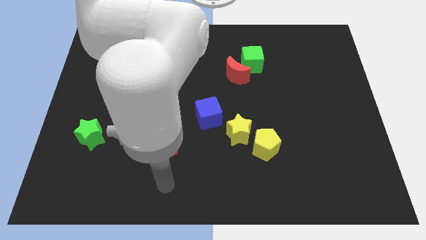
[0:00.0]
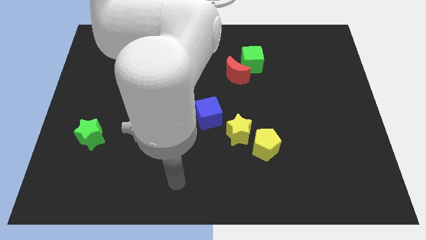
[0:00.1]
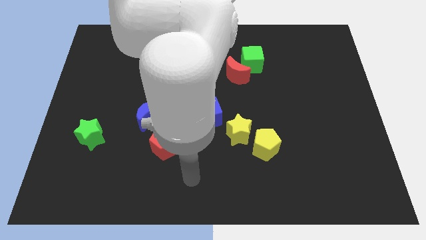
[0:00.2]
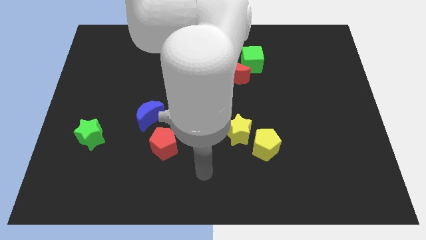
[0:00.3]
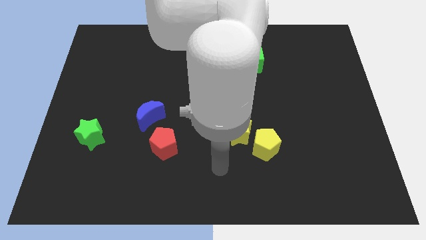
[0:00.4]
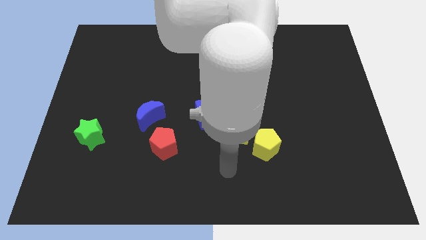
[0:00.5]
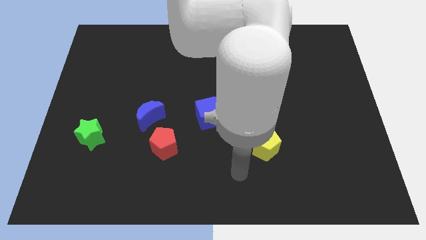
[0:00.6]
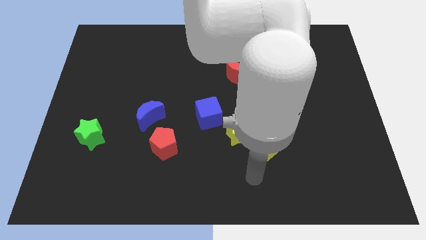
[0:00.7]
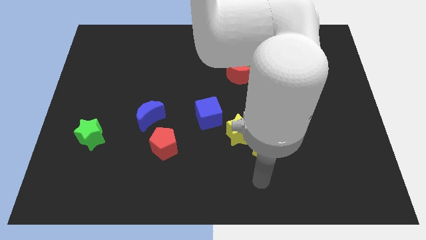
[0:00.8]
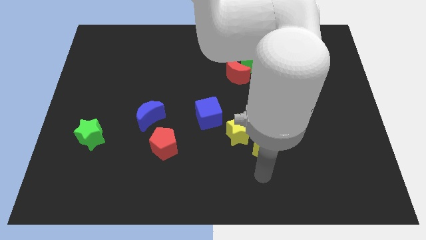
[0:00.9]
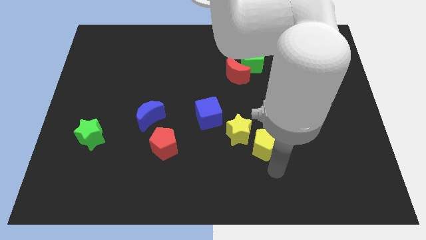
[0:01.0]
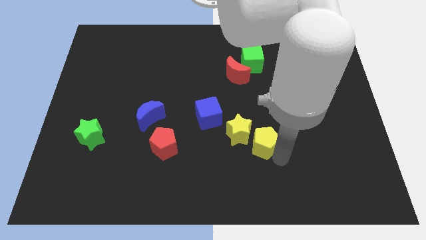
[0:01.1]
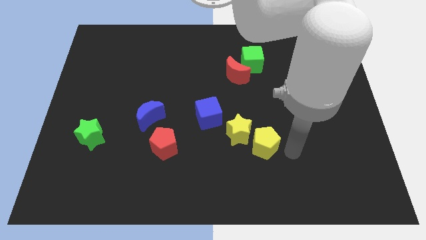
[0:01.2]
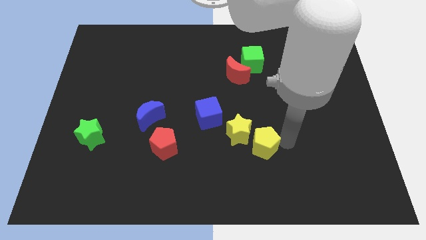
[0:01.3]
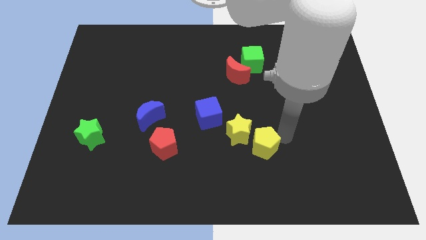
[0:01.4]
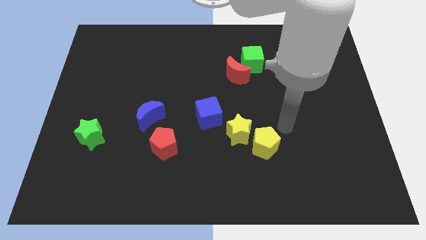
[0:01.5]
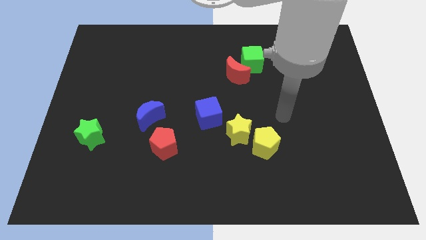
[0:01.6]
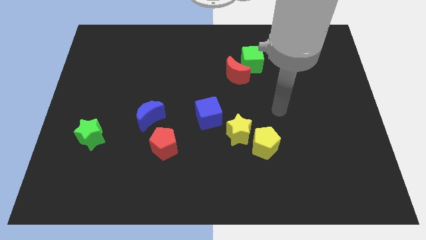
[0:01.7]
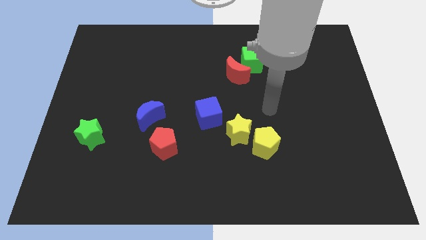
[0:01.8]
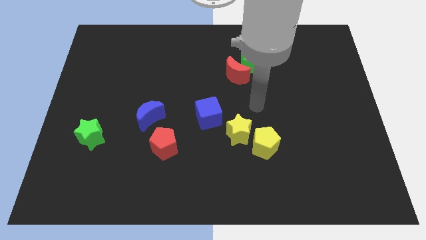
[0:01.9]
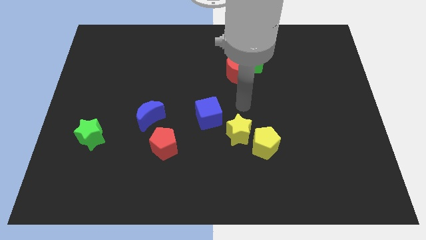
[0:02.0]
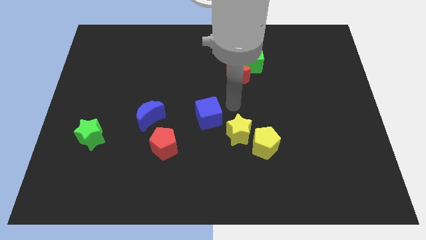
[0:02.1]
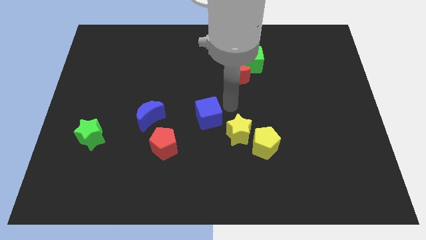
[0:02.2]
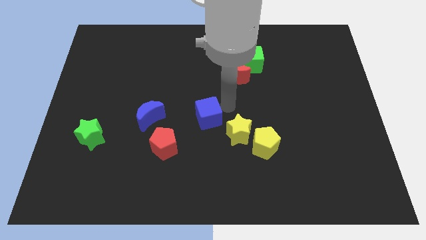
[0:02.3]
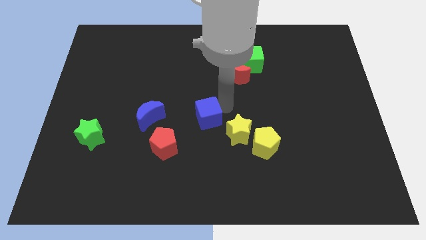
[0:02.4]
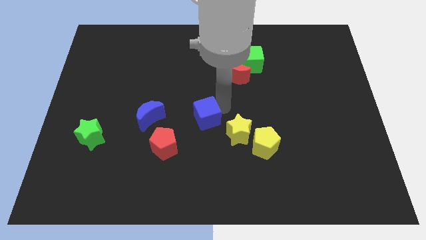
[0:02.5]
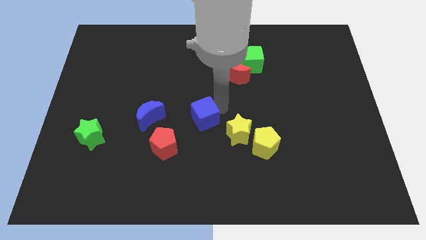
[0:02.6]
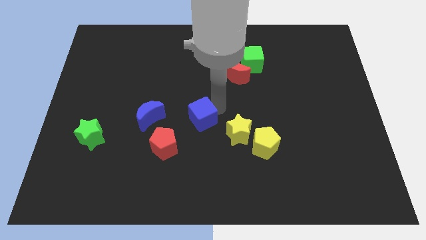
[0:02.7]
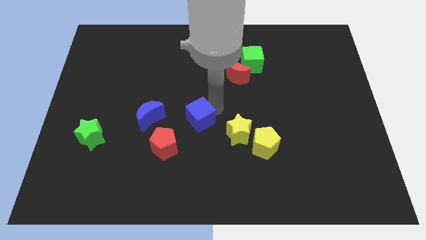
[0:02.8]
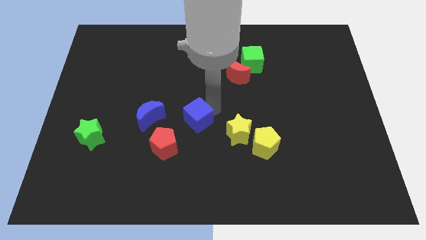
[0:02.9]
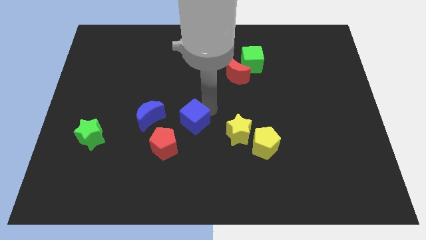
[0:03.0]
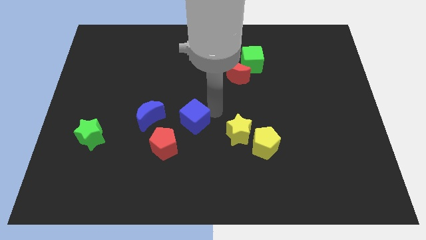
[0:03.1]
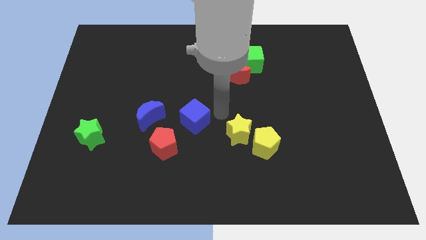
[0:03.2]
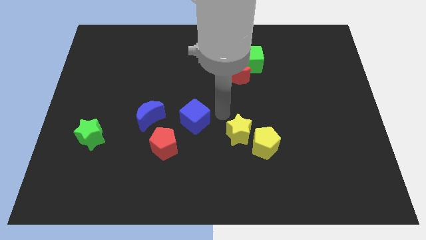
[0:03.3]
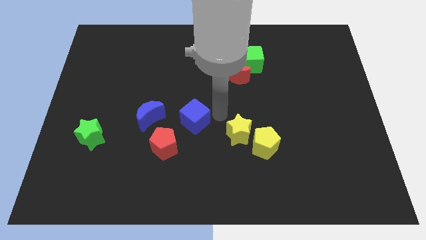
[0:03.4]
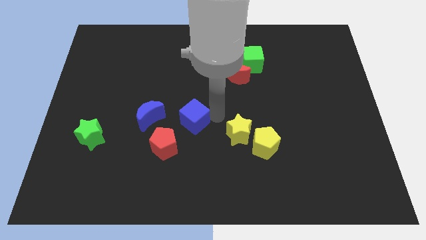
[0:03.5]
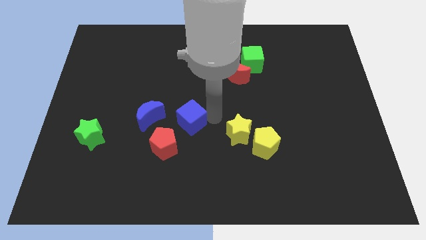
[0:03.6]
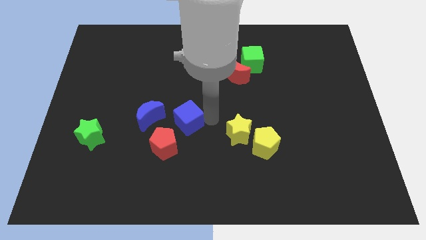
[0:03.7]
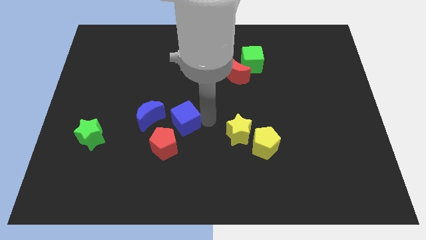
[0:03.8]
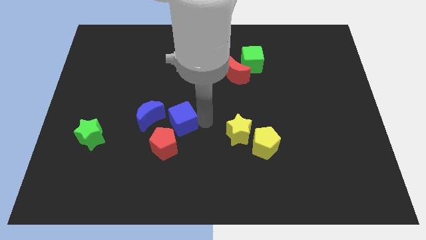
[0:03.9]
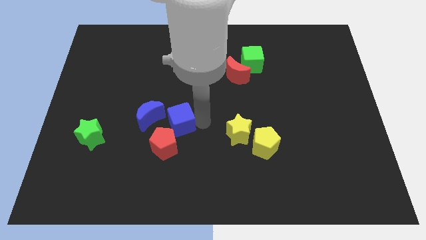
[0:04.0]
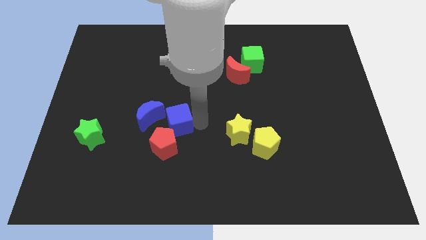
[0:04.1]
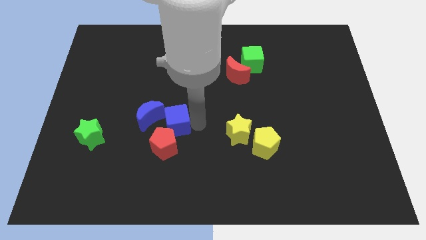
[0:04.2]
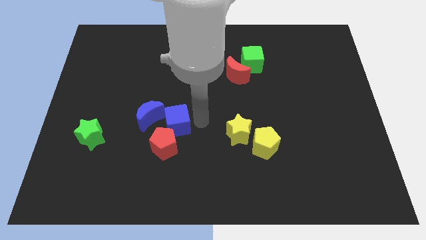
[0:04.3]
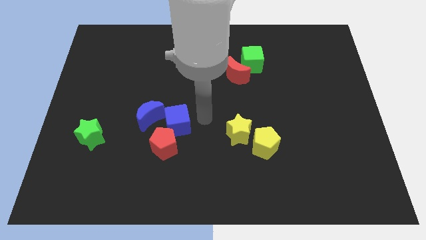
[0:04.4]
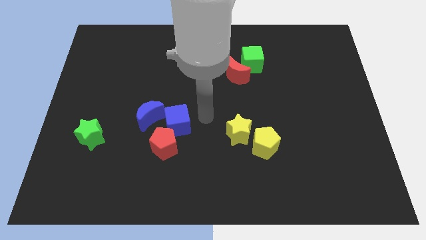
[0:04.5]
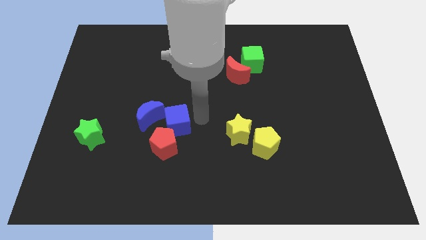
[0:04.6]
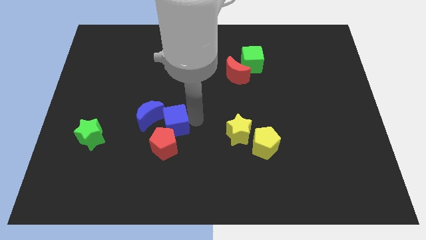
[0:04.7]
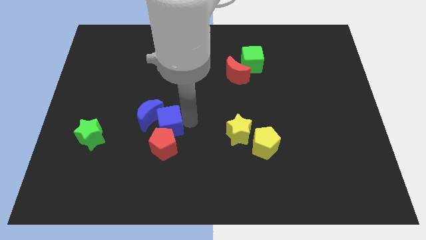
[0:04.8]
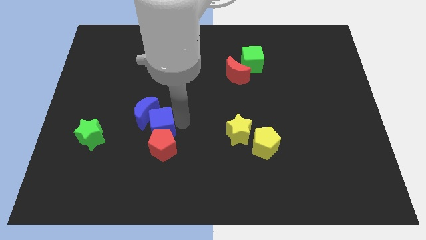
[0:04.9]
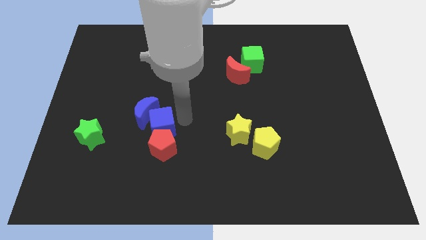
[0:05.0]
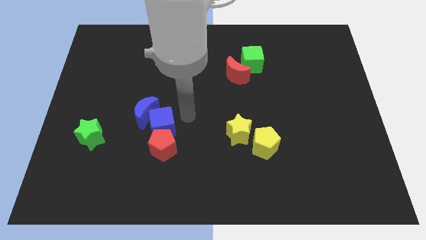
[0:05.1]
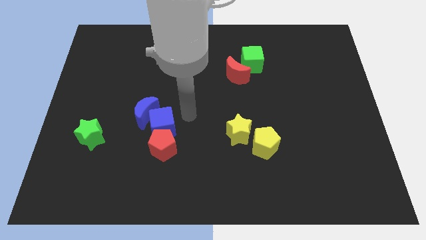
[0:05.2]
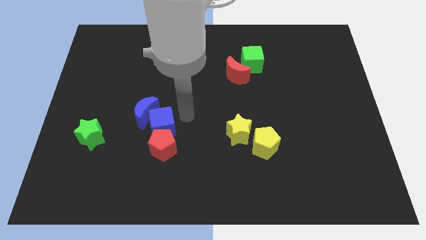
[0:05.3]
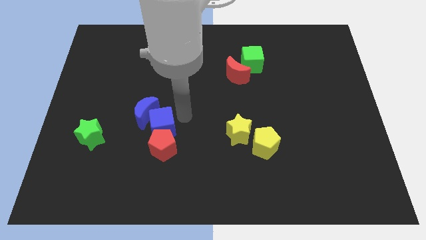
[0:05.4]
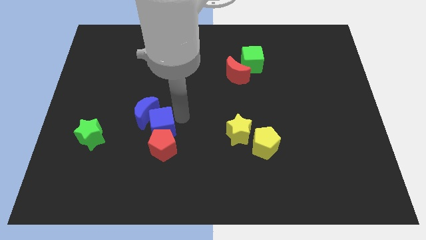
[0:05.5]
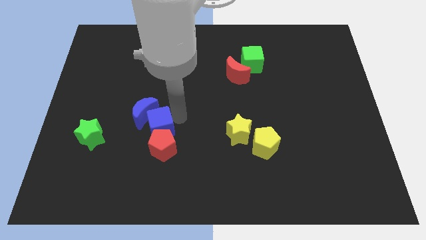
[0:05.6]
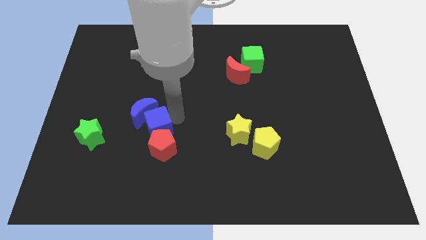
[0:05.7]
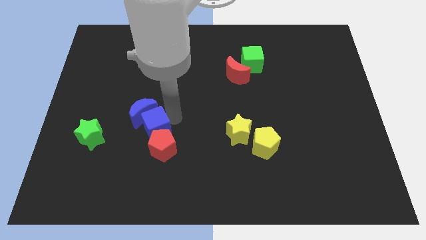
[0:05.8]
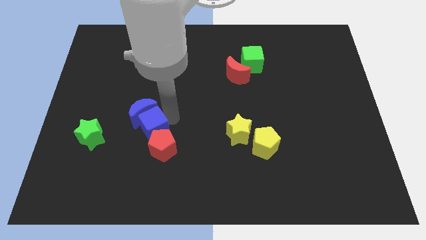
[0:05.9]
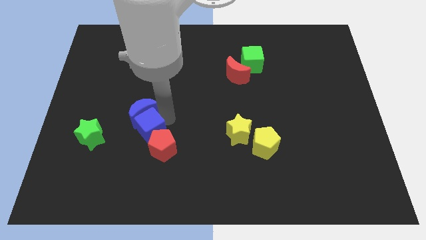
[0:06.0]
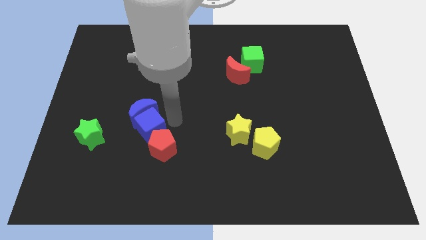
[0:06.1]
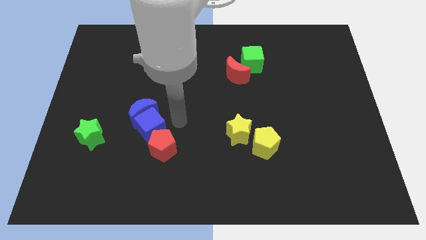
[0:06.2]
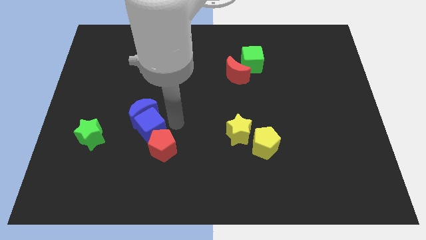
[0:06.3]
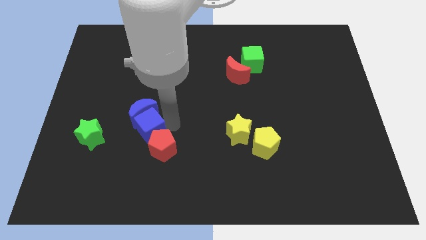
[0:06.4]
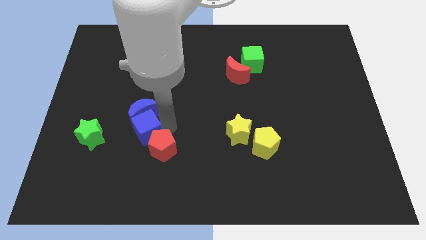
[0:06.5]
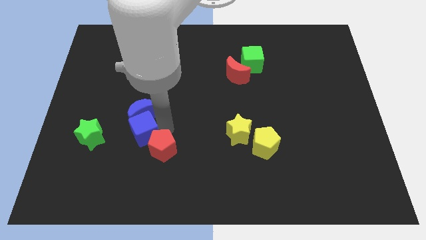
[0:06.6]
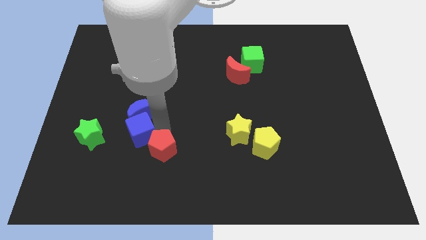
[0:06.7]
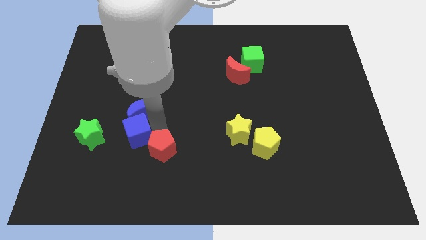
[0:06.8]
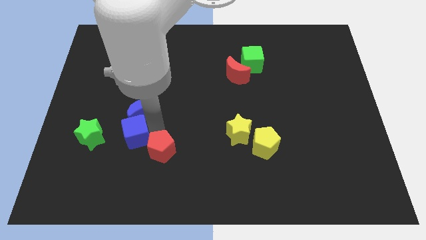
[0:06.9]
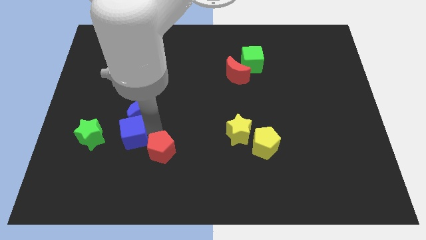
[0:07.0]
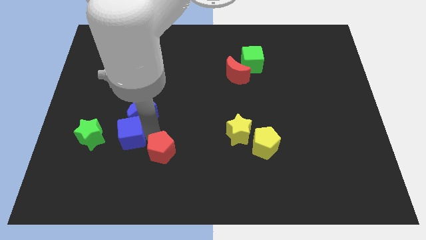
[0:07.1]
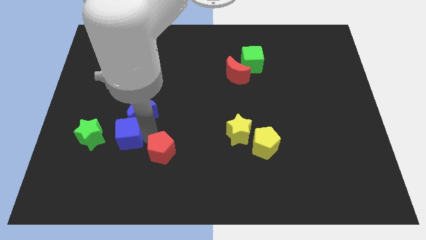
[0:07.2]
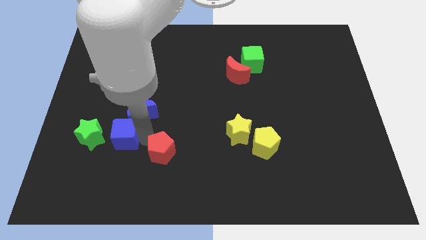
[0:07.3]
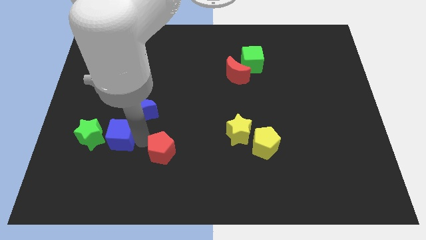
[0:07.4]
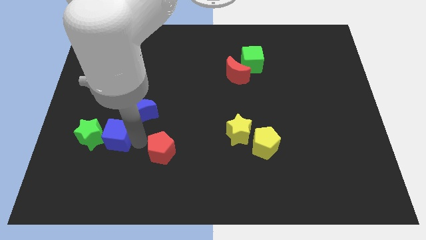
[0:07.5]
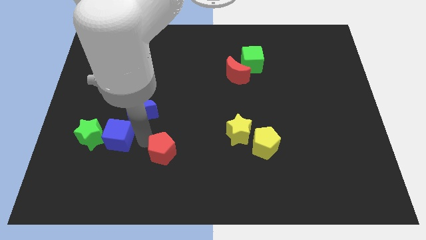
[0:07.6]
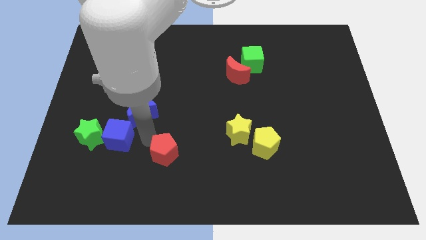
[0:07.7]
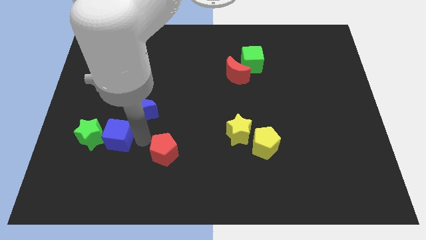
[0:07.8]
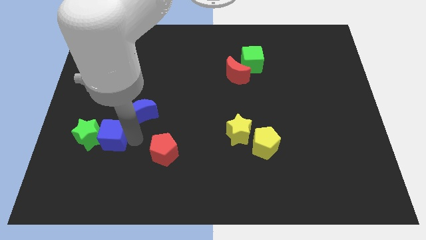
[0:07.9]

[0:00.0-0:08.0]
slide the blue cube next to the green star
